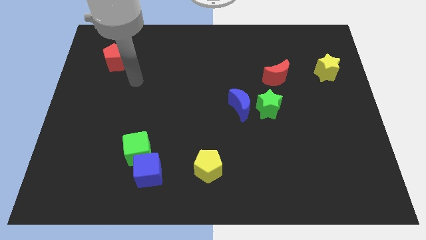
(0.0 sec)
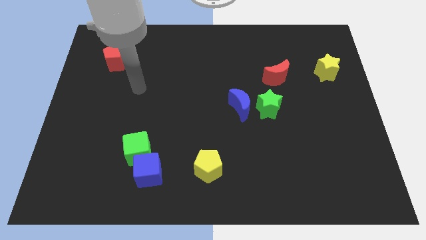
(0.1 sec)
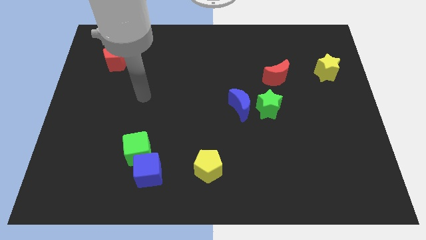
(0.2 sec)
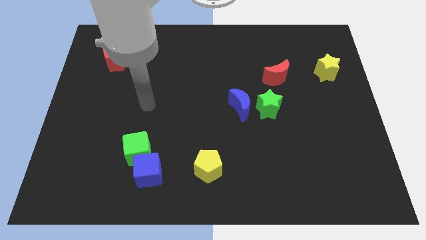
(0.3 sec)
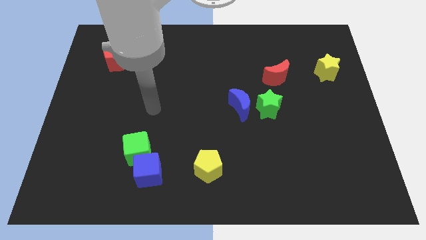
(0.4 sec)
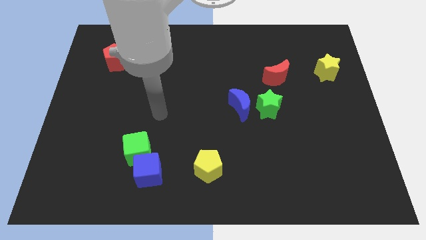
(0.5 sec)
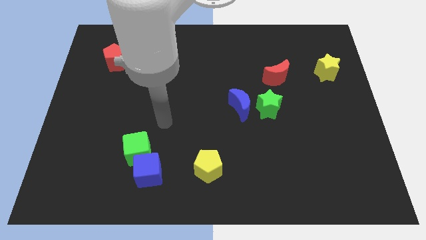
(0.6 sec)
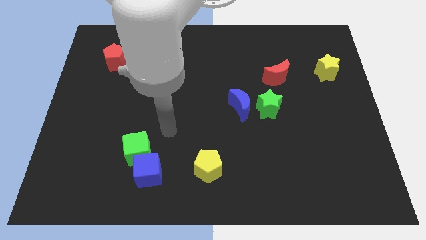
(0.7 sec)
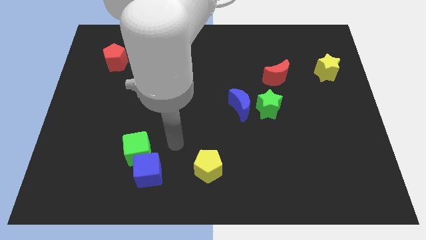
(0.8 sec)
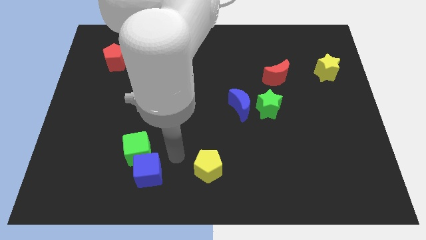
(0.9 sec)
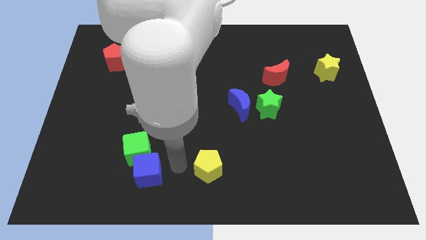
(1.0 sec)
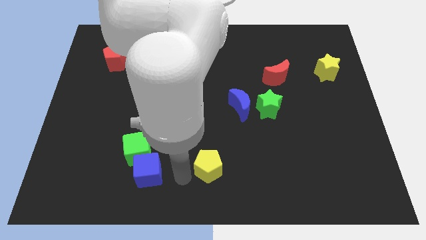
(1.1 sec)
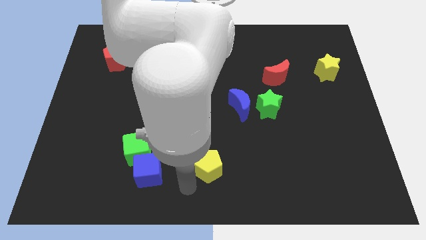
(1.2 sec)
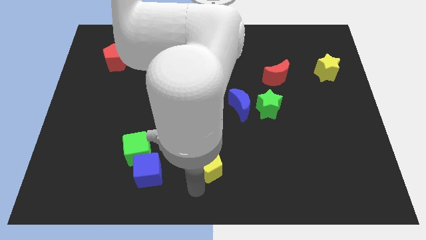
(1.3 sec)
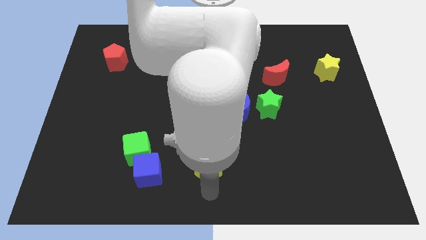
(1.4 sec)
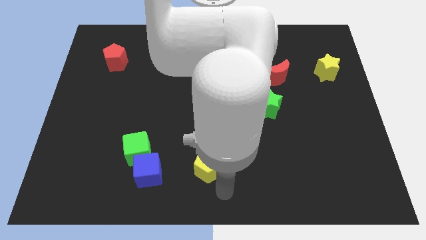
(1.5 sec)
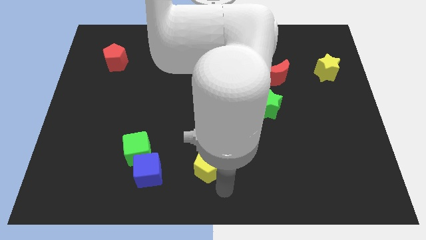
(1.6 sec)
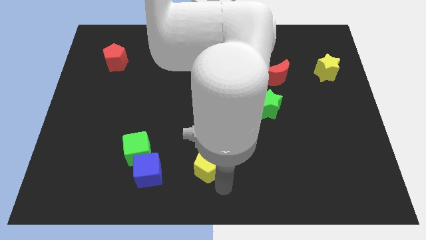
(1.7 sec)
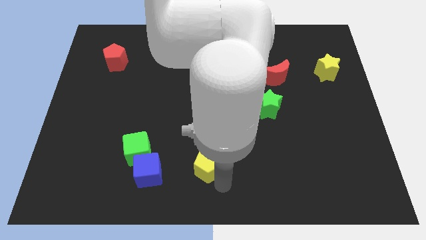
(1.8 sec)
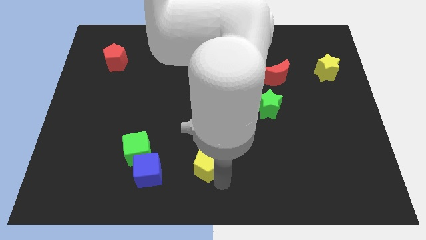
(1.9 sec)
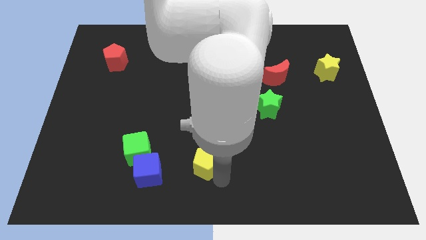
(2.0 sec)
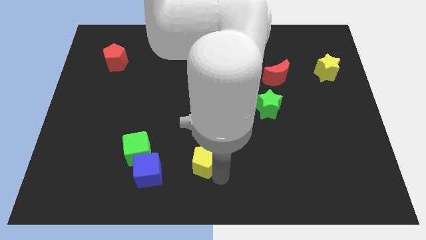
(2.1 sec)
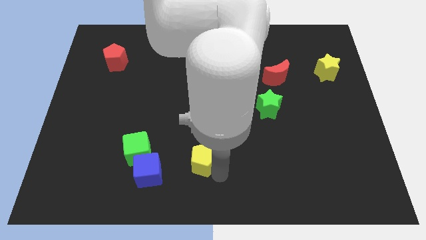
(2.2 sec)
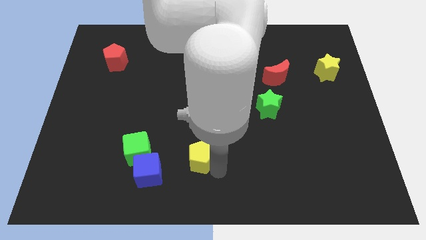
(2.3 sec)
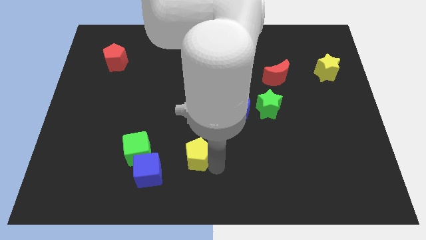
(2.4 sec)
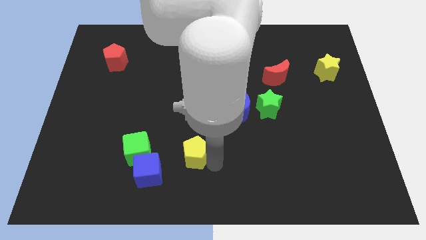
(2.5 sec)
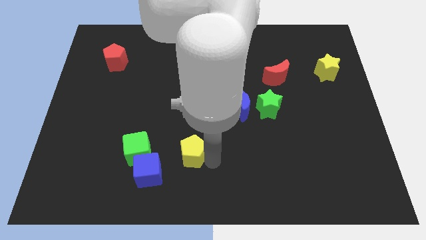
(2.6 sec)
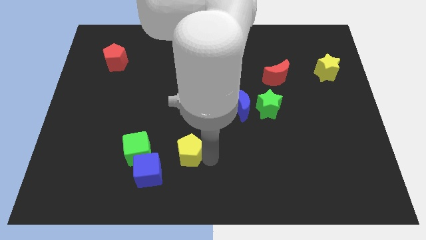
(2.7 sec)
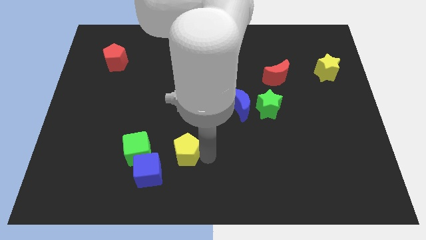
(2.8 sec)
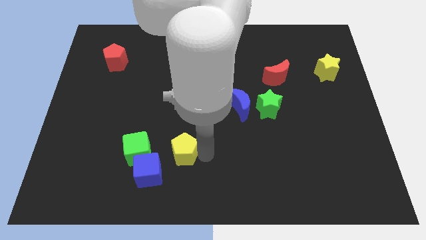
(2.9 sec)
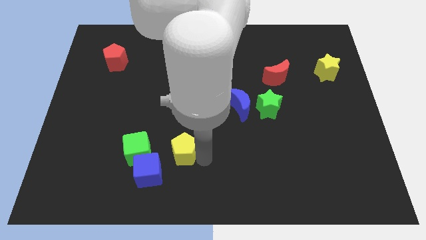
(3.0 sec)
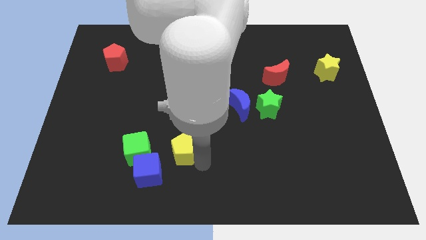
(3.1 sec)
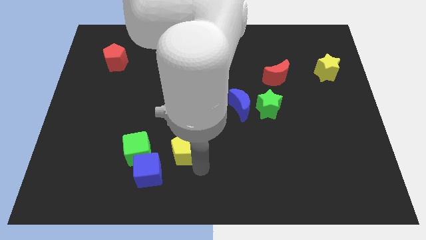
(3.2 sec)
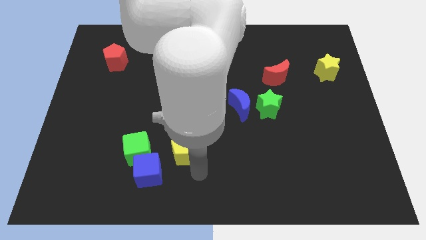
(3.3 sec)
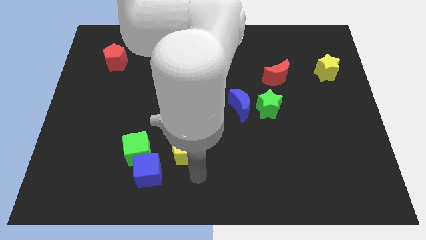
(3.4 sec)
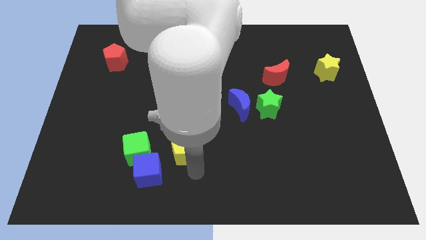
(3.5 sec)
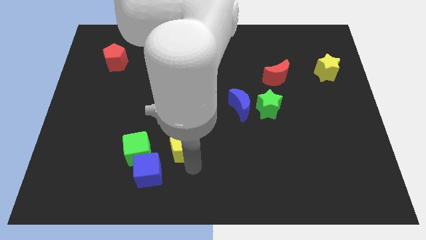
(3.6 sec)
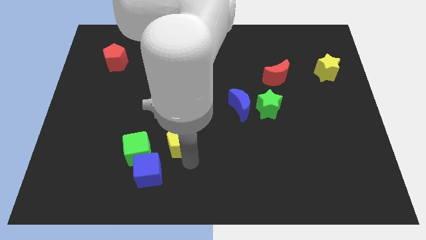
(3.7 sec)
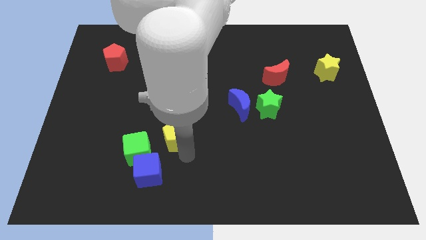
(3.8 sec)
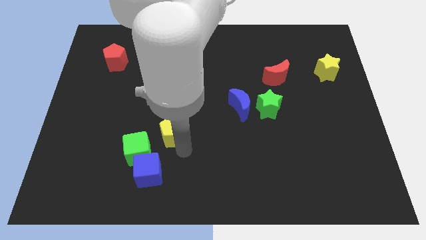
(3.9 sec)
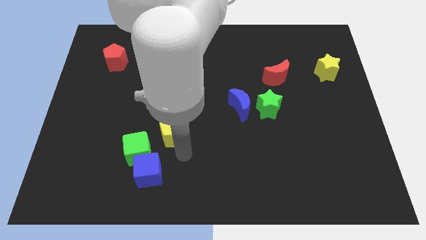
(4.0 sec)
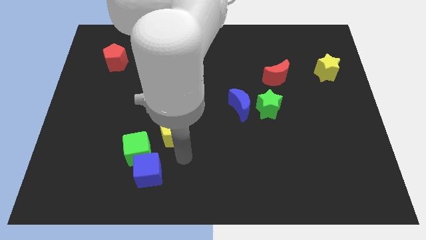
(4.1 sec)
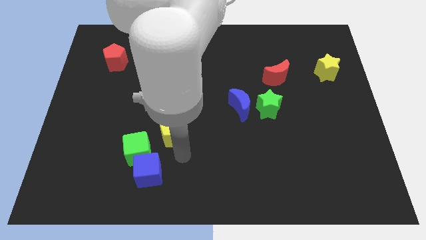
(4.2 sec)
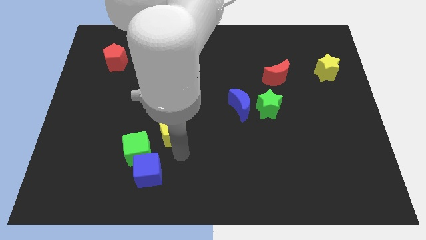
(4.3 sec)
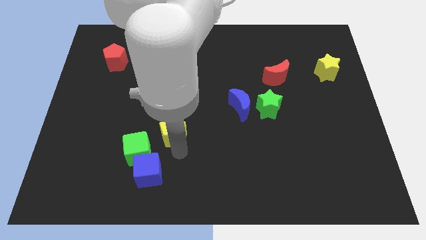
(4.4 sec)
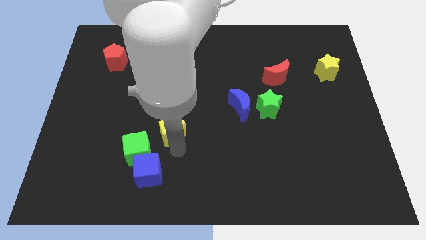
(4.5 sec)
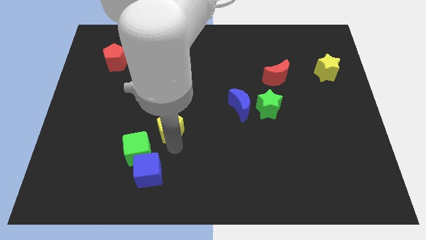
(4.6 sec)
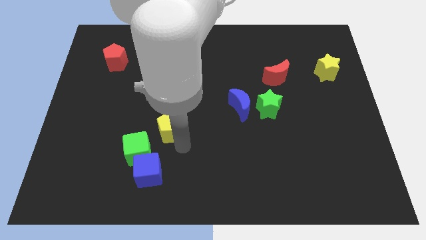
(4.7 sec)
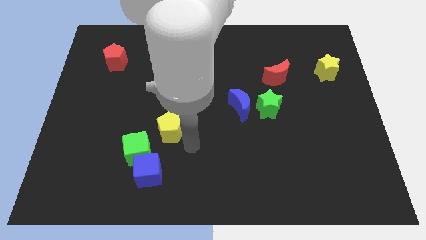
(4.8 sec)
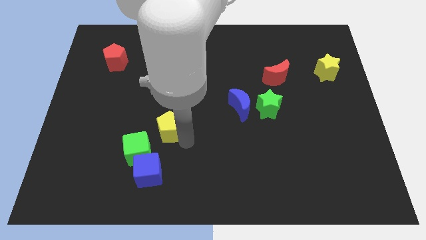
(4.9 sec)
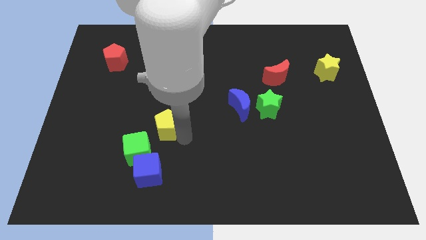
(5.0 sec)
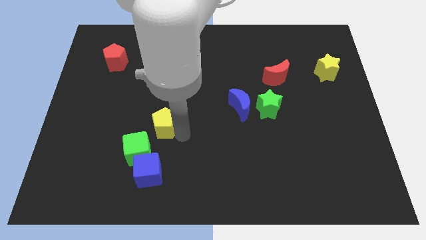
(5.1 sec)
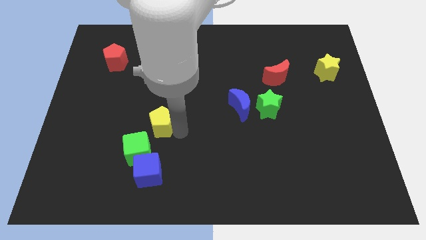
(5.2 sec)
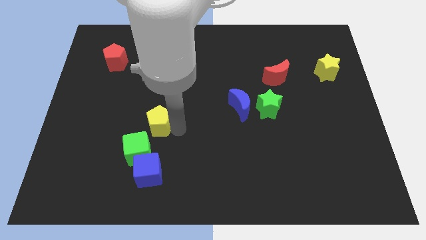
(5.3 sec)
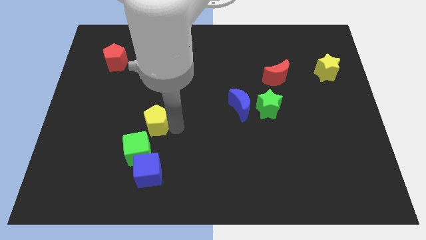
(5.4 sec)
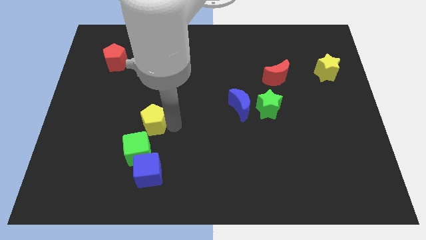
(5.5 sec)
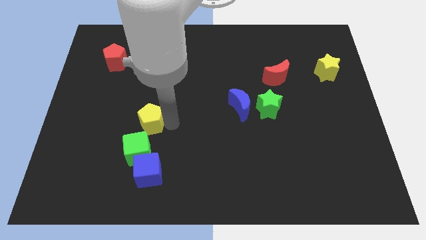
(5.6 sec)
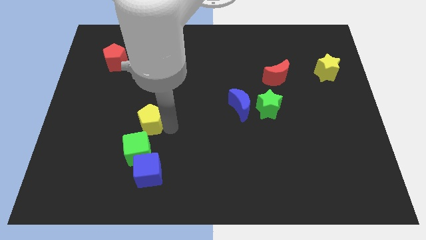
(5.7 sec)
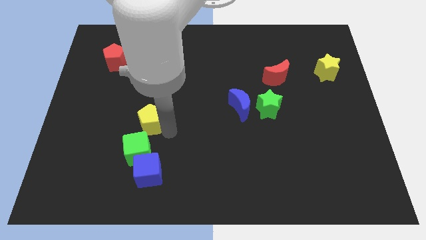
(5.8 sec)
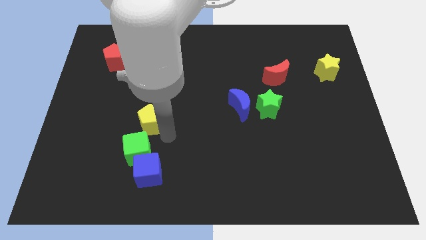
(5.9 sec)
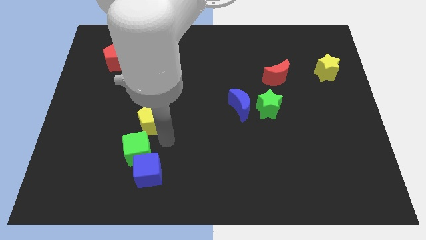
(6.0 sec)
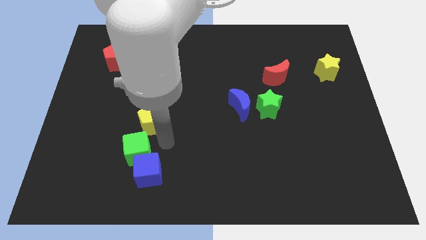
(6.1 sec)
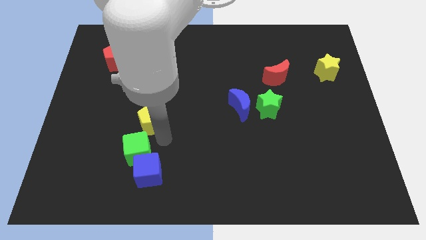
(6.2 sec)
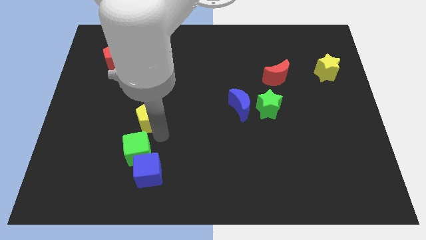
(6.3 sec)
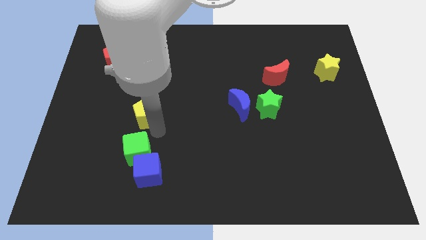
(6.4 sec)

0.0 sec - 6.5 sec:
push the yellow pentagon diagonally upwards and to the left

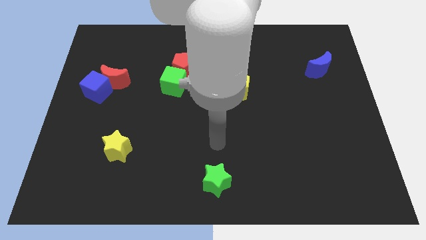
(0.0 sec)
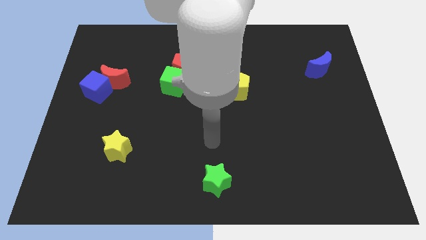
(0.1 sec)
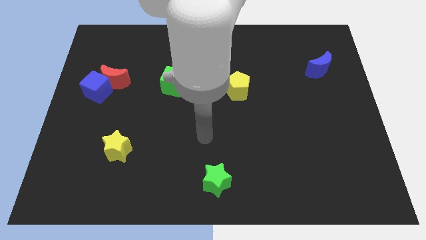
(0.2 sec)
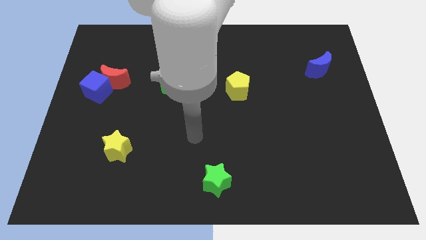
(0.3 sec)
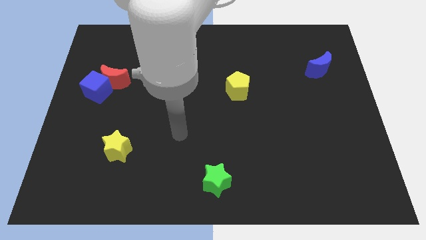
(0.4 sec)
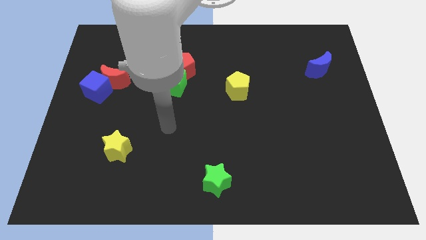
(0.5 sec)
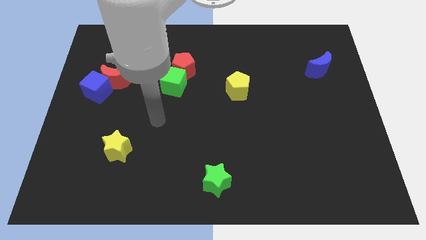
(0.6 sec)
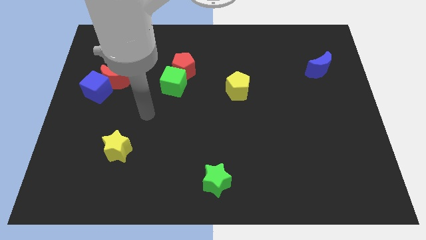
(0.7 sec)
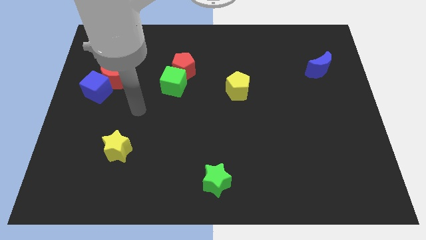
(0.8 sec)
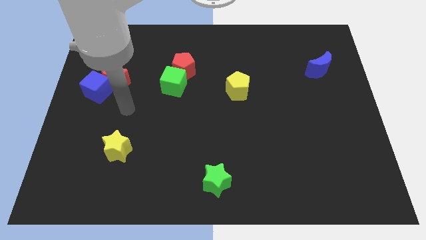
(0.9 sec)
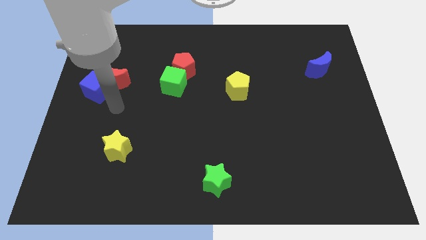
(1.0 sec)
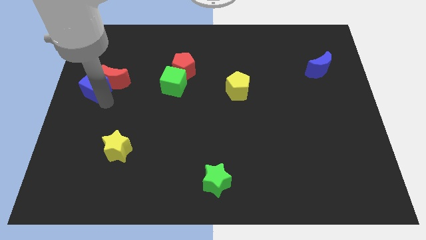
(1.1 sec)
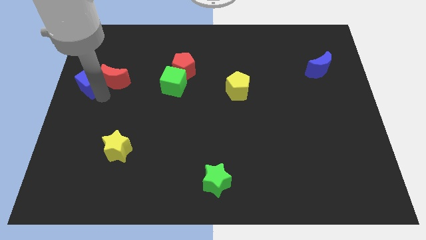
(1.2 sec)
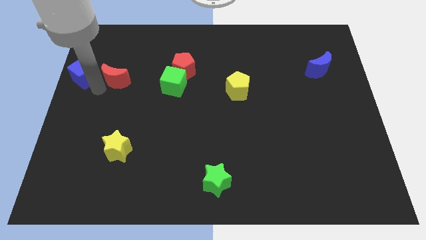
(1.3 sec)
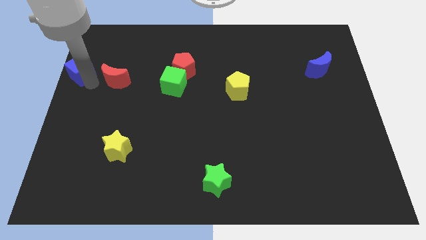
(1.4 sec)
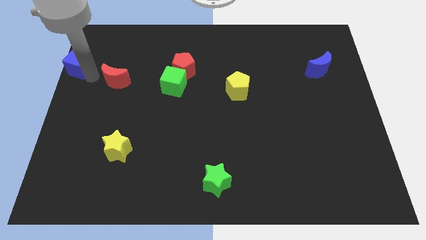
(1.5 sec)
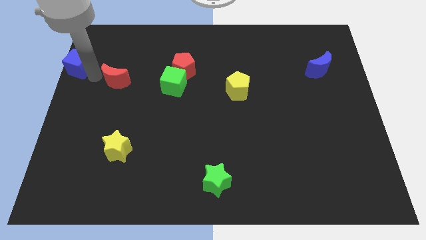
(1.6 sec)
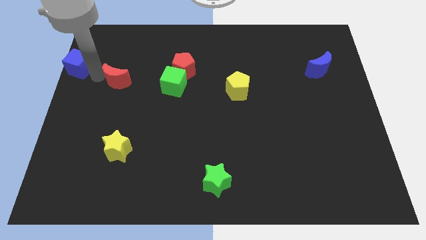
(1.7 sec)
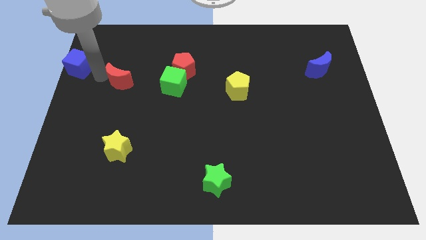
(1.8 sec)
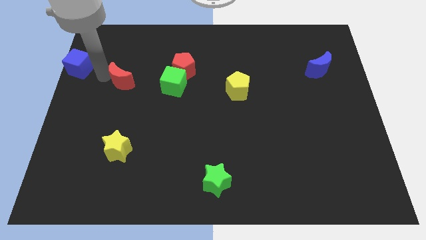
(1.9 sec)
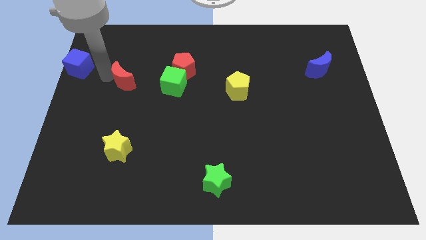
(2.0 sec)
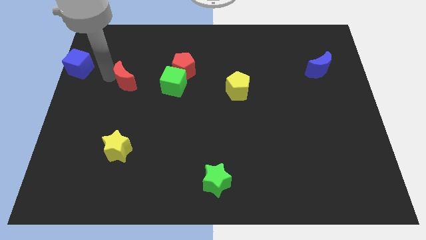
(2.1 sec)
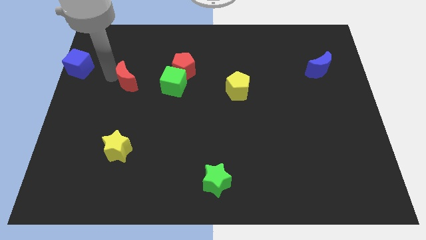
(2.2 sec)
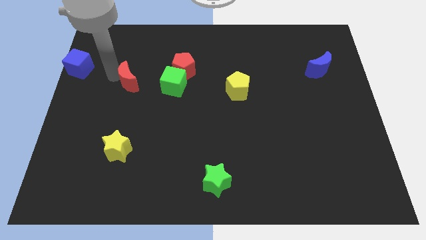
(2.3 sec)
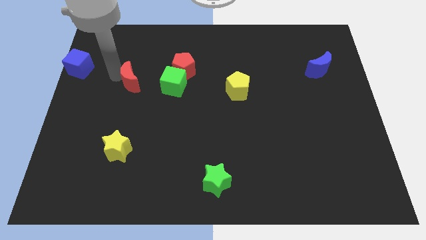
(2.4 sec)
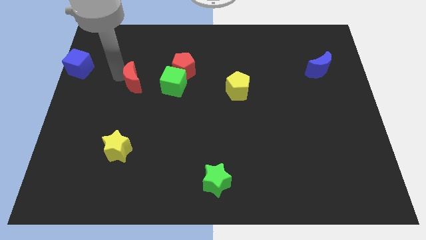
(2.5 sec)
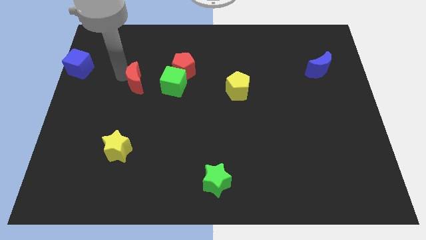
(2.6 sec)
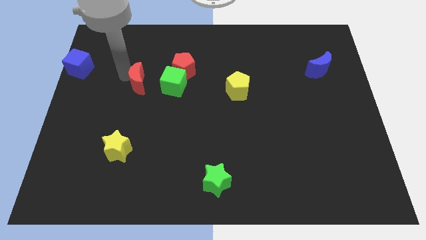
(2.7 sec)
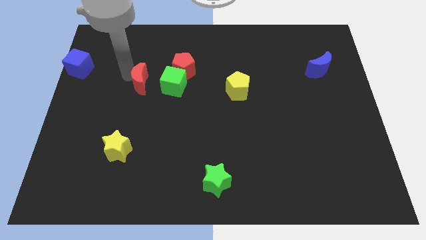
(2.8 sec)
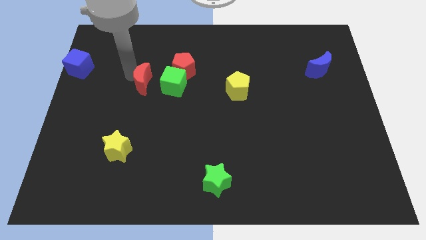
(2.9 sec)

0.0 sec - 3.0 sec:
slide the red moon right somewhat
